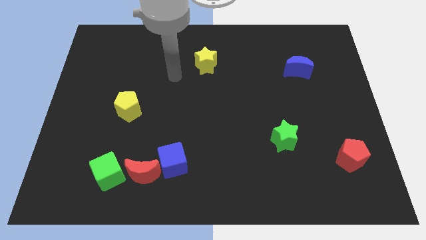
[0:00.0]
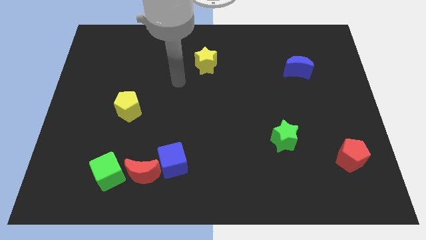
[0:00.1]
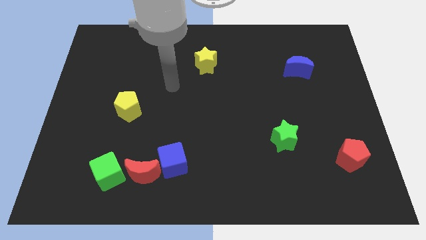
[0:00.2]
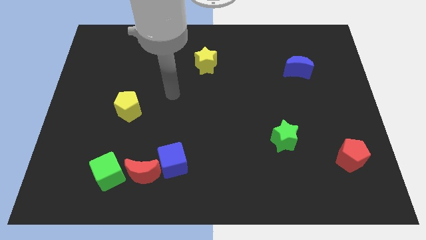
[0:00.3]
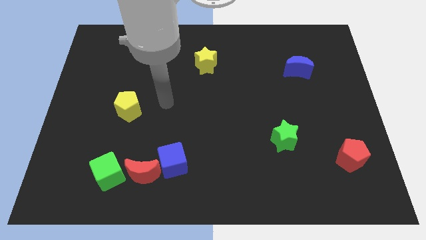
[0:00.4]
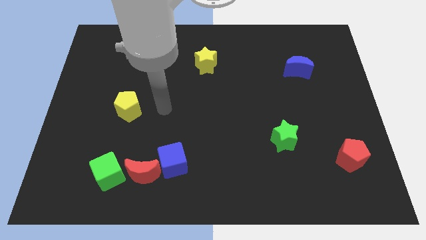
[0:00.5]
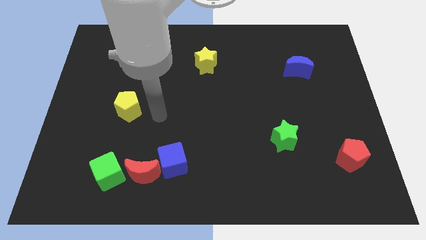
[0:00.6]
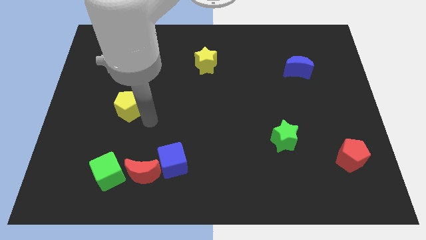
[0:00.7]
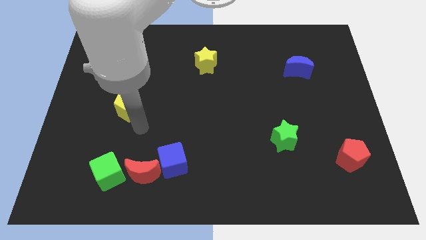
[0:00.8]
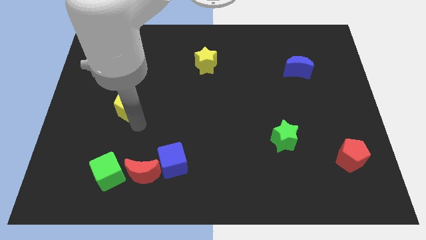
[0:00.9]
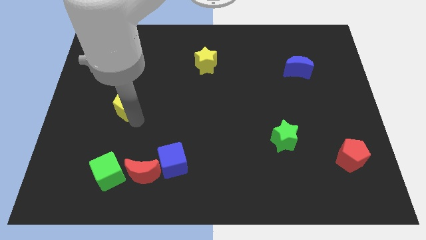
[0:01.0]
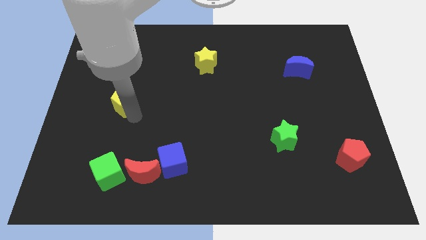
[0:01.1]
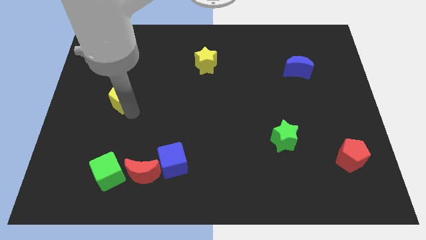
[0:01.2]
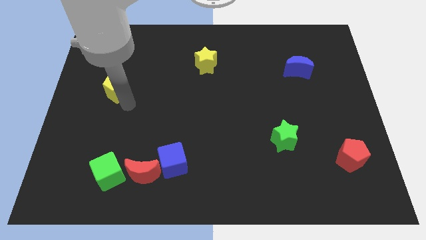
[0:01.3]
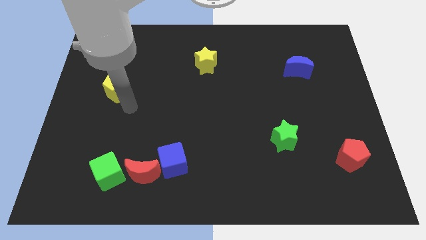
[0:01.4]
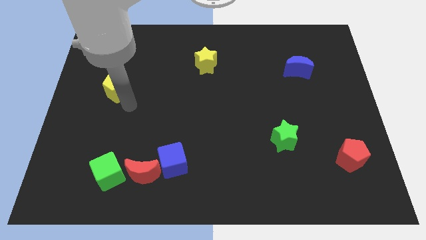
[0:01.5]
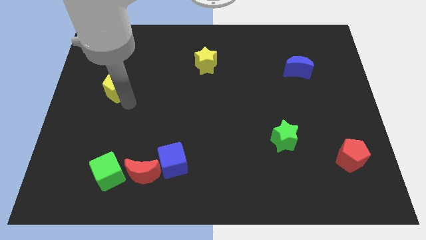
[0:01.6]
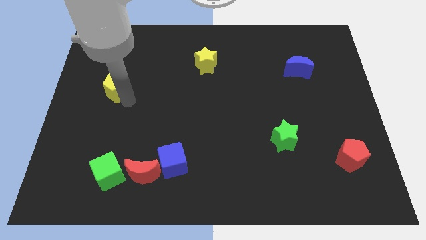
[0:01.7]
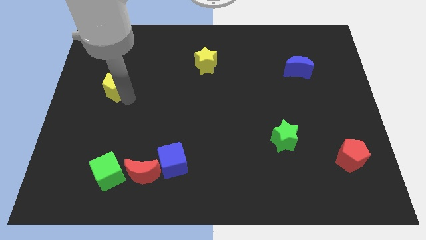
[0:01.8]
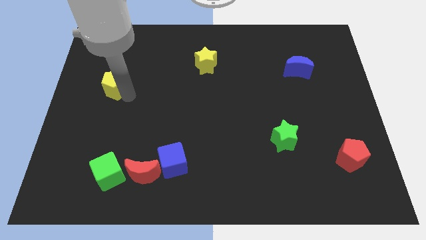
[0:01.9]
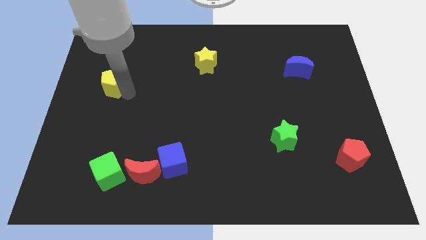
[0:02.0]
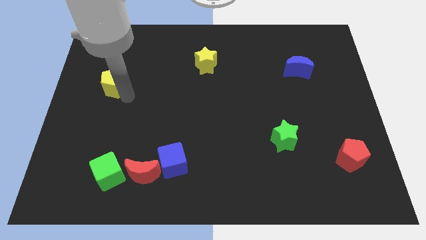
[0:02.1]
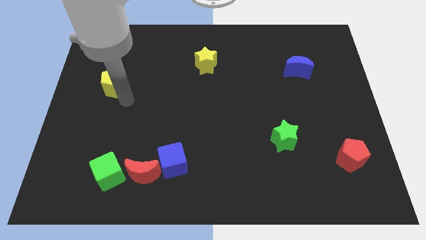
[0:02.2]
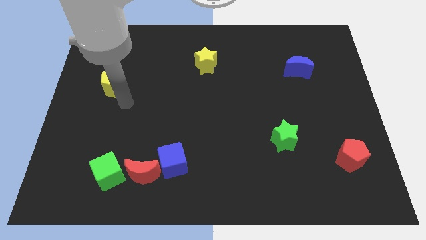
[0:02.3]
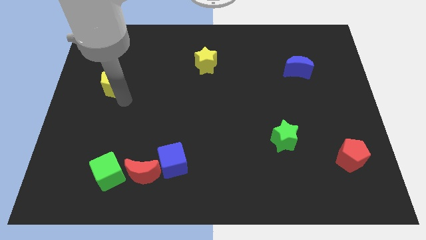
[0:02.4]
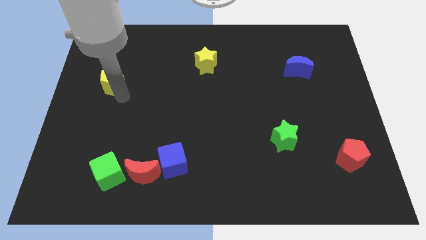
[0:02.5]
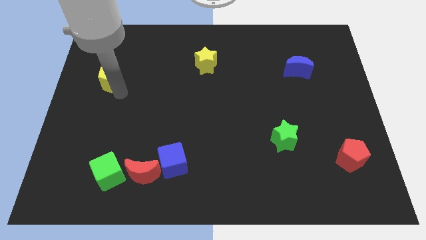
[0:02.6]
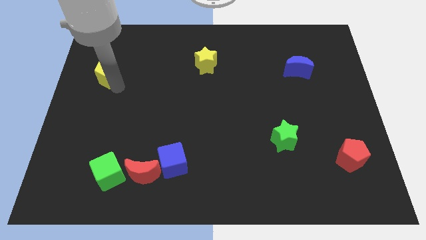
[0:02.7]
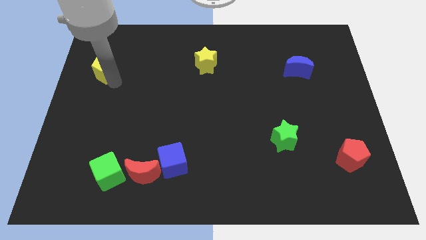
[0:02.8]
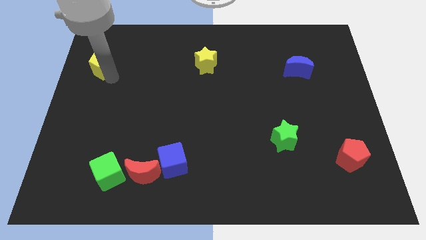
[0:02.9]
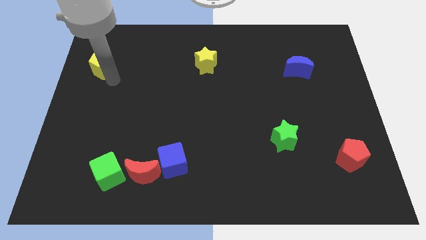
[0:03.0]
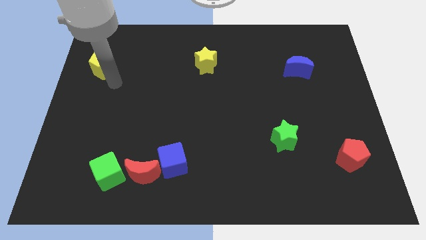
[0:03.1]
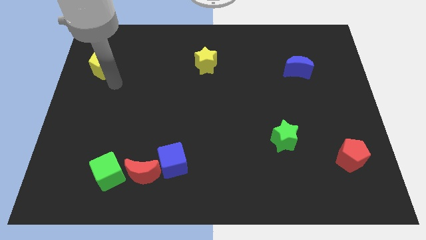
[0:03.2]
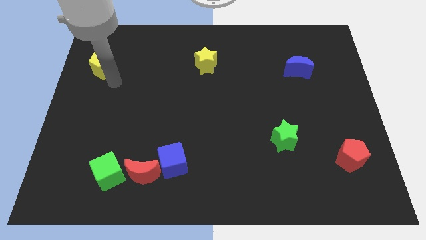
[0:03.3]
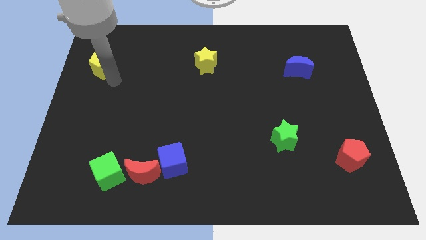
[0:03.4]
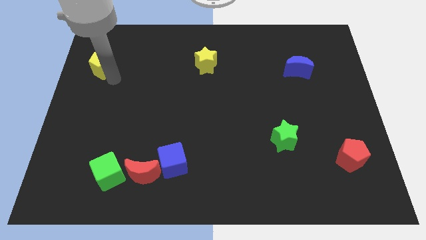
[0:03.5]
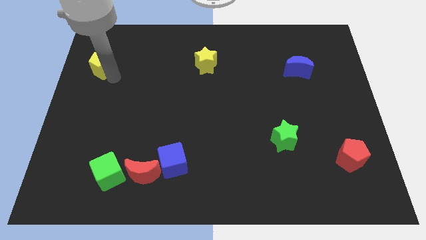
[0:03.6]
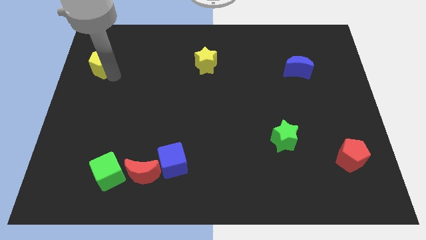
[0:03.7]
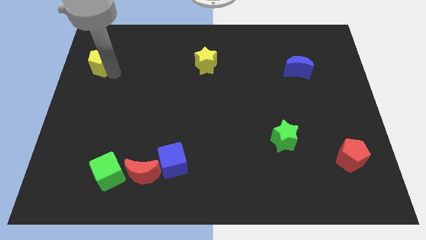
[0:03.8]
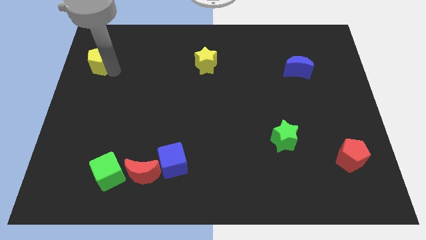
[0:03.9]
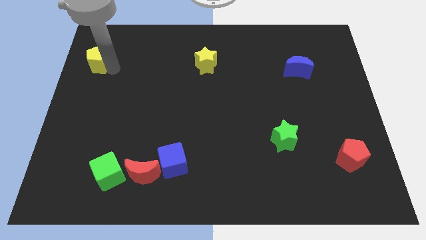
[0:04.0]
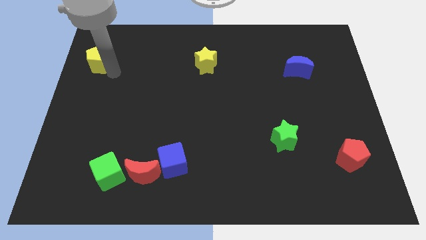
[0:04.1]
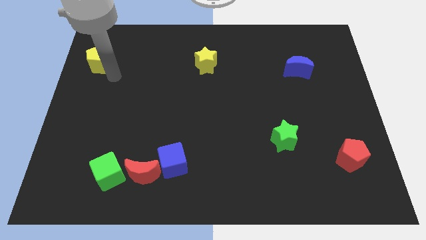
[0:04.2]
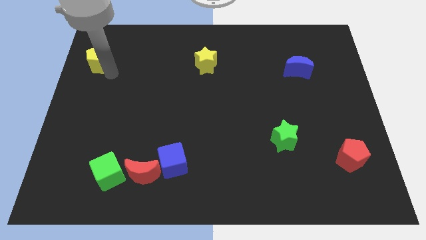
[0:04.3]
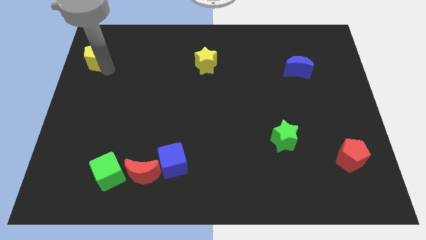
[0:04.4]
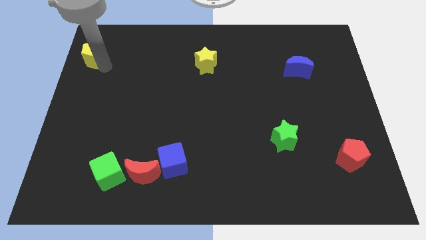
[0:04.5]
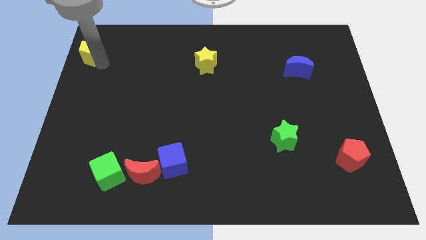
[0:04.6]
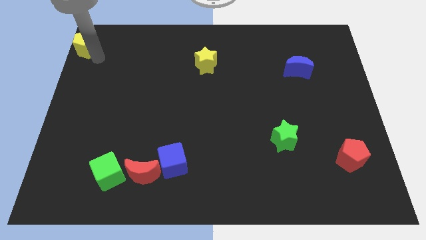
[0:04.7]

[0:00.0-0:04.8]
slide the yellow pentagon to the top left

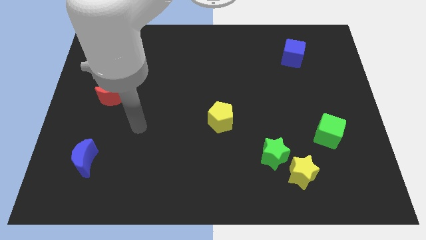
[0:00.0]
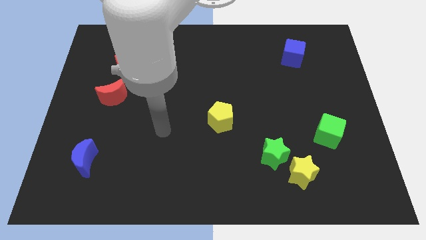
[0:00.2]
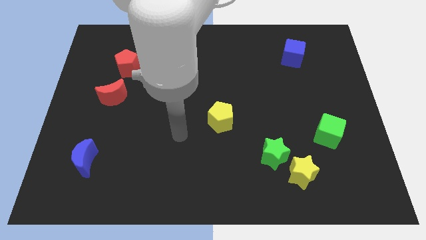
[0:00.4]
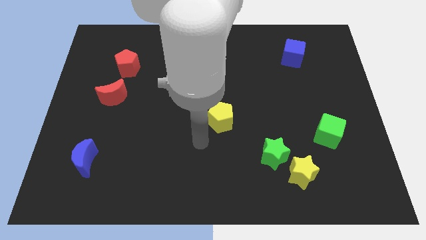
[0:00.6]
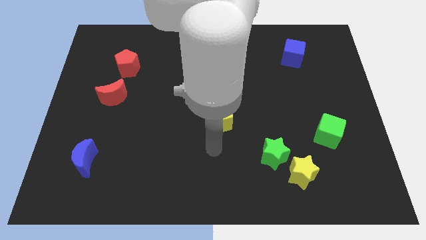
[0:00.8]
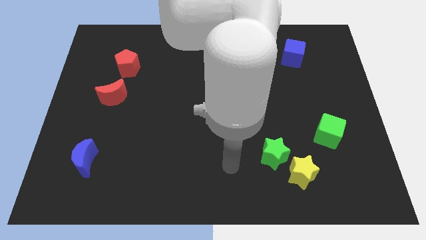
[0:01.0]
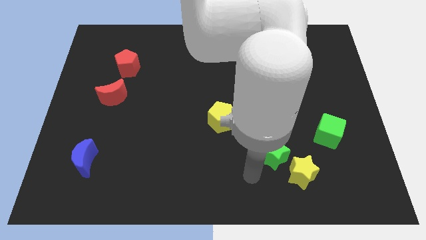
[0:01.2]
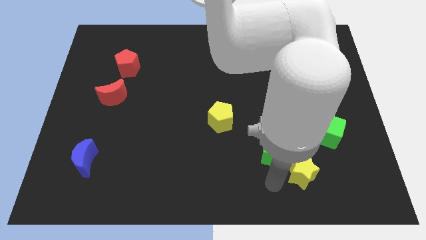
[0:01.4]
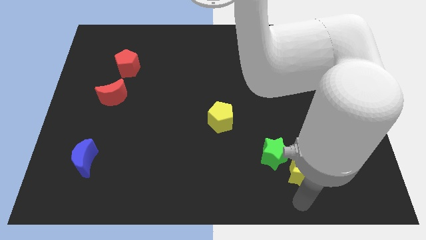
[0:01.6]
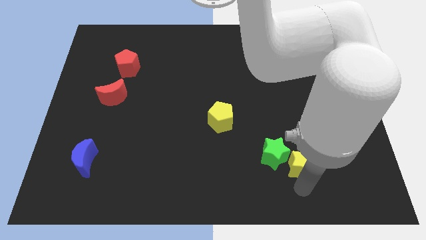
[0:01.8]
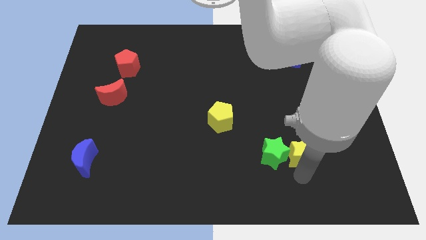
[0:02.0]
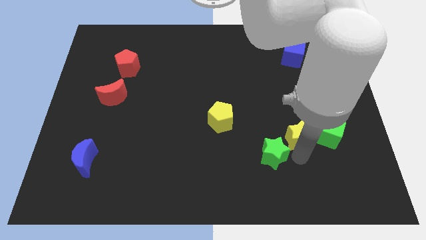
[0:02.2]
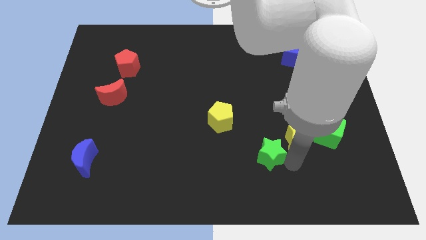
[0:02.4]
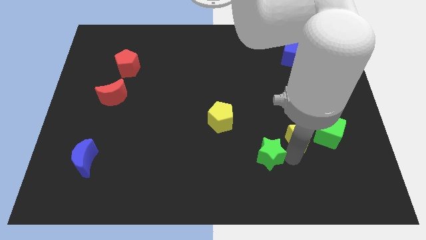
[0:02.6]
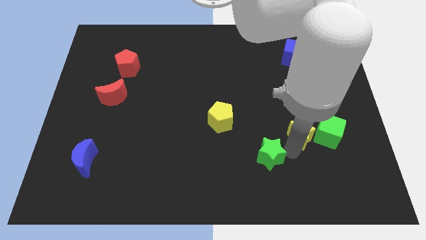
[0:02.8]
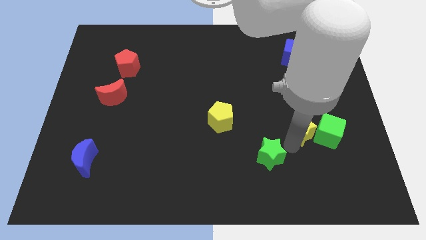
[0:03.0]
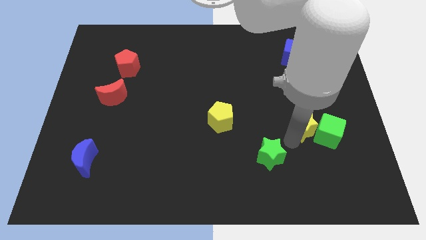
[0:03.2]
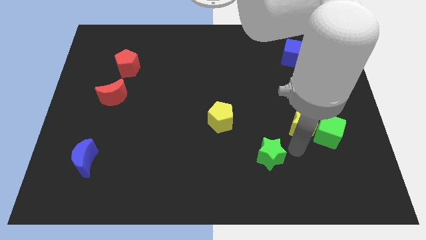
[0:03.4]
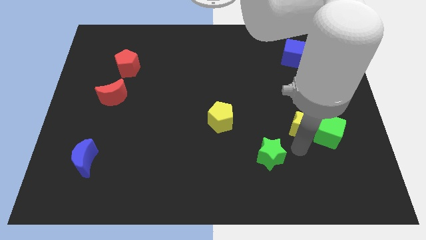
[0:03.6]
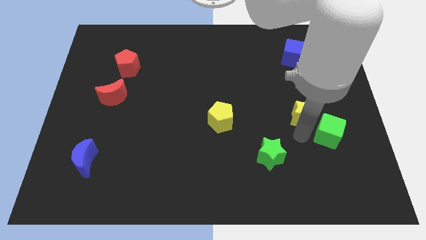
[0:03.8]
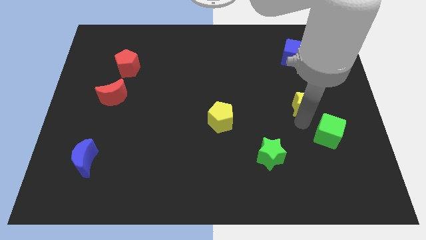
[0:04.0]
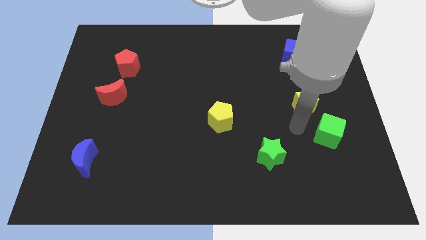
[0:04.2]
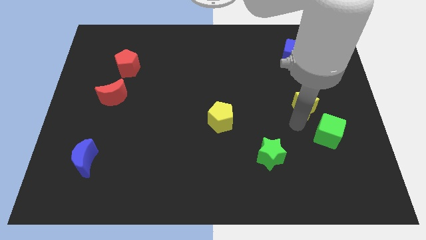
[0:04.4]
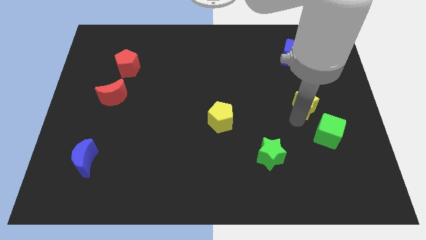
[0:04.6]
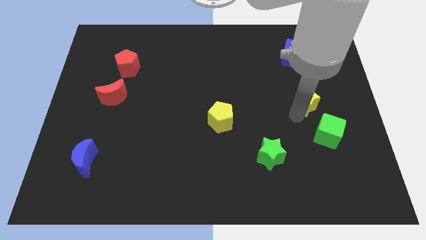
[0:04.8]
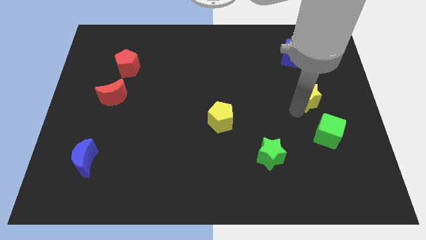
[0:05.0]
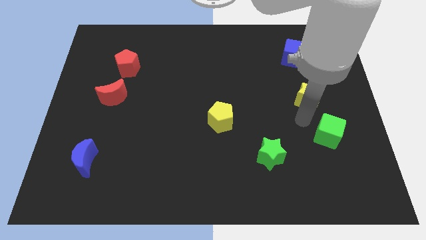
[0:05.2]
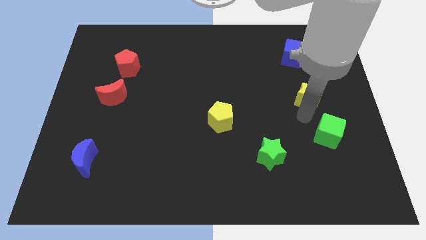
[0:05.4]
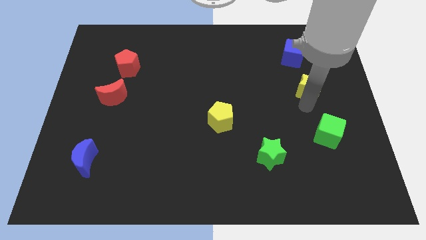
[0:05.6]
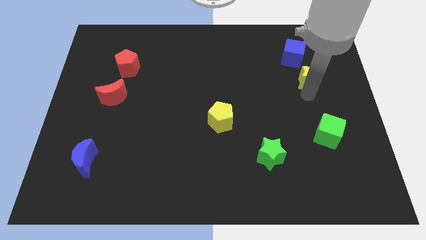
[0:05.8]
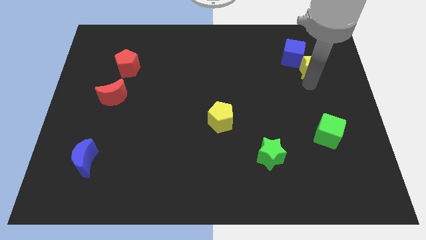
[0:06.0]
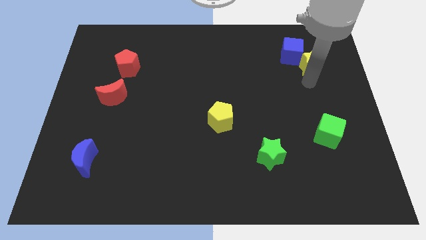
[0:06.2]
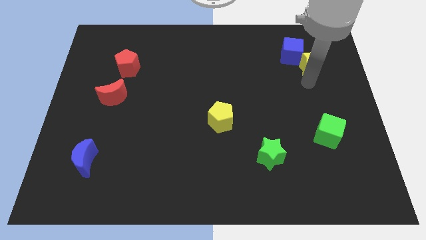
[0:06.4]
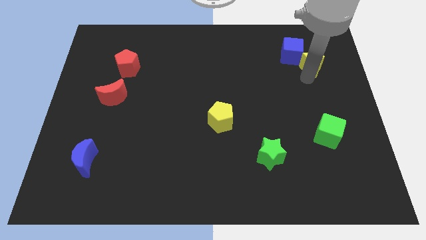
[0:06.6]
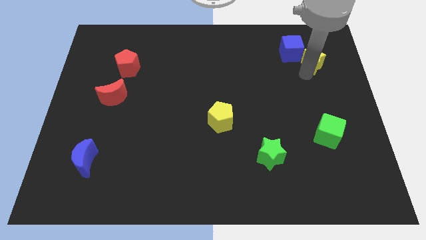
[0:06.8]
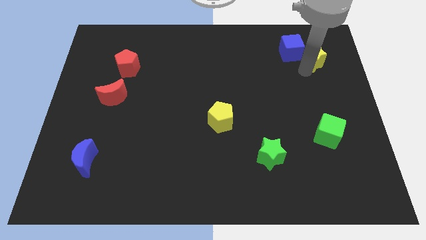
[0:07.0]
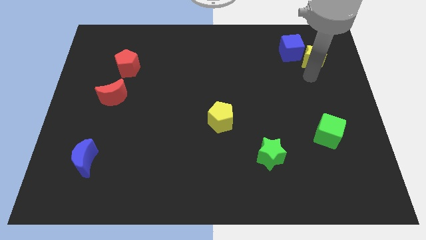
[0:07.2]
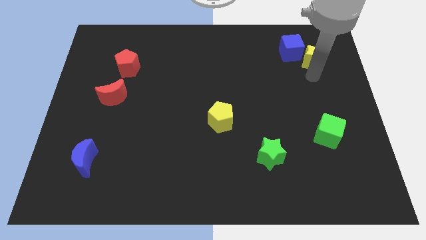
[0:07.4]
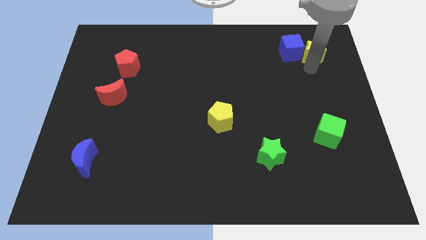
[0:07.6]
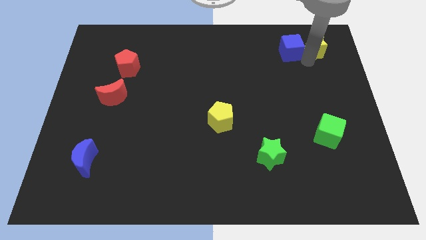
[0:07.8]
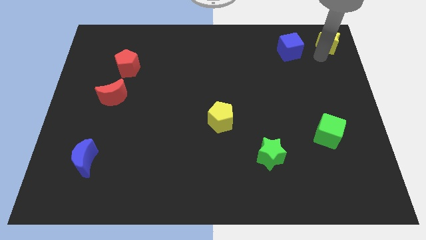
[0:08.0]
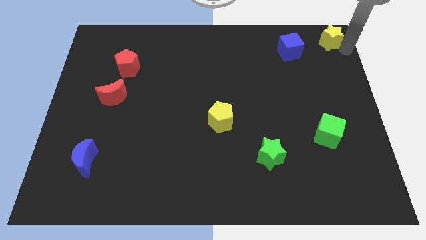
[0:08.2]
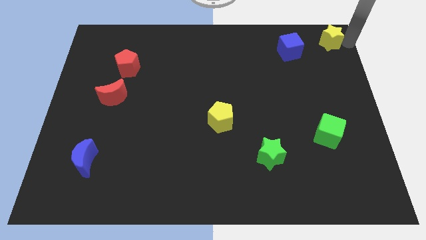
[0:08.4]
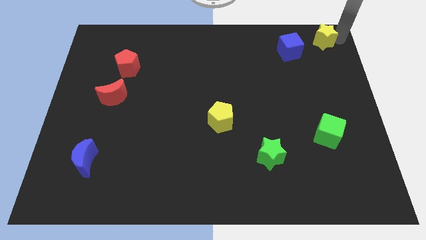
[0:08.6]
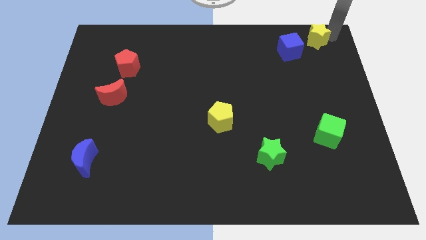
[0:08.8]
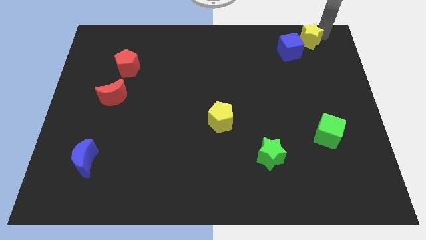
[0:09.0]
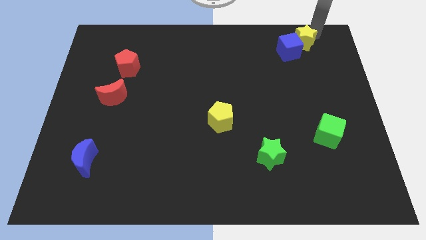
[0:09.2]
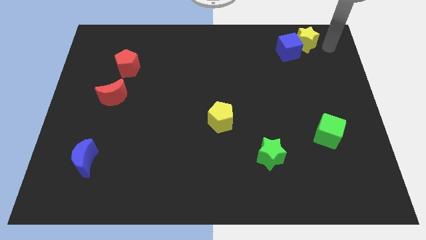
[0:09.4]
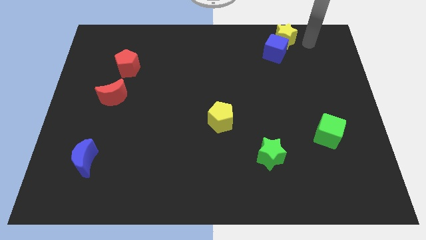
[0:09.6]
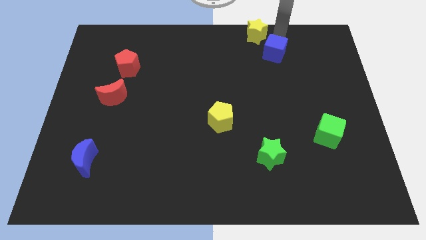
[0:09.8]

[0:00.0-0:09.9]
slide the yellow star to the towards your base
